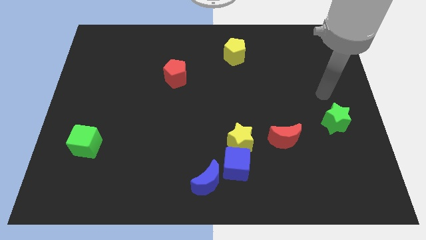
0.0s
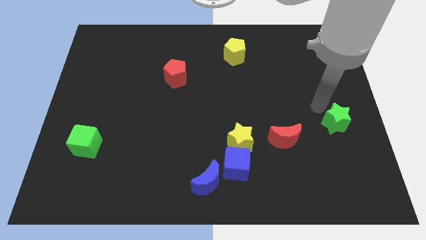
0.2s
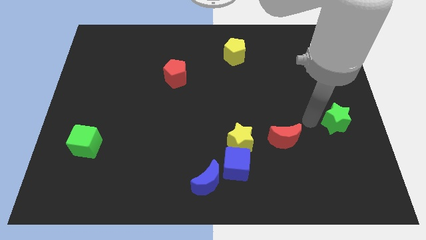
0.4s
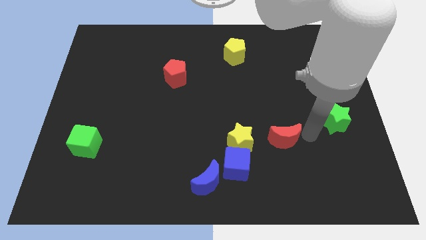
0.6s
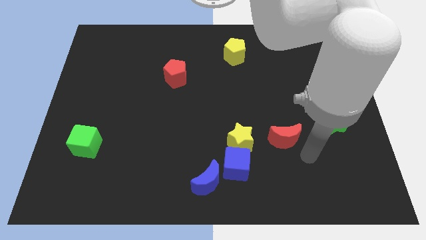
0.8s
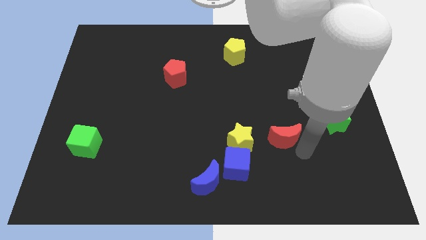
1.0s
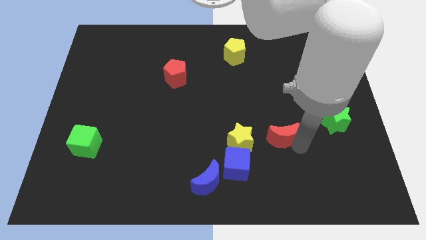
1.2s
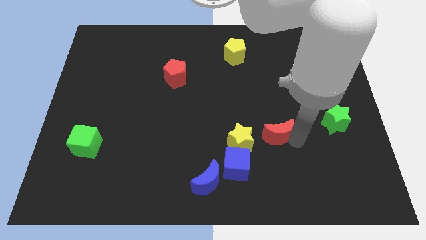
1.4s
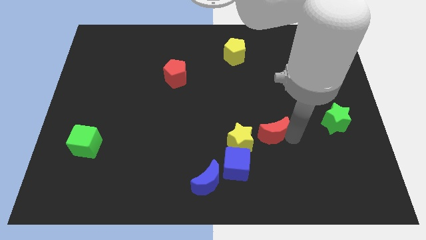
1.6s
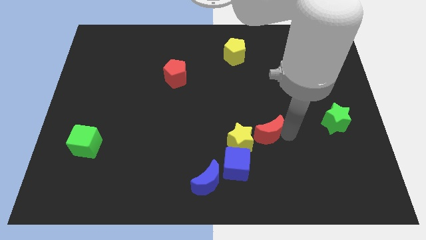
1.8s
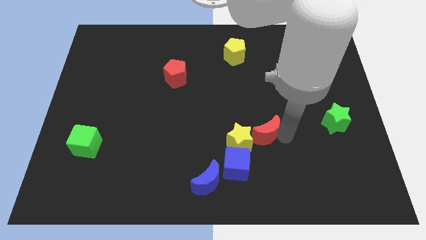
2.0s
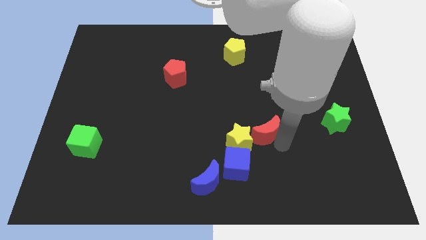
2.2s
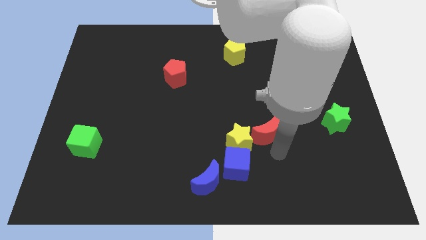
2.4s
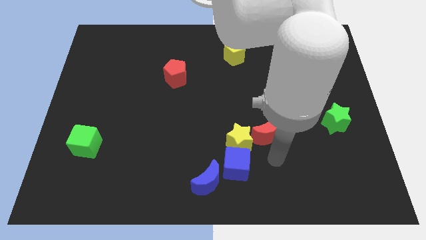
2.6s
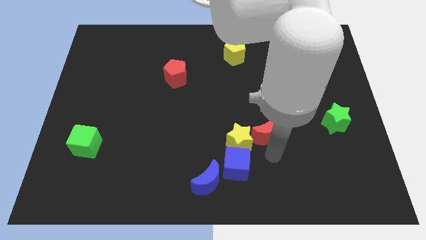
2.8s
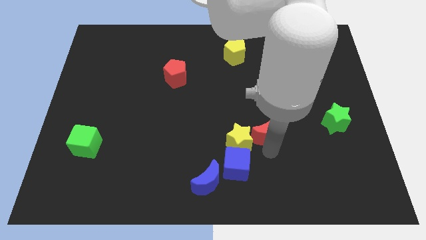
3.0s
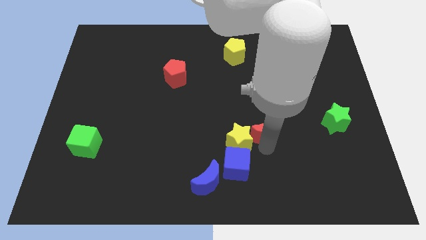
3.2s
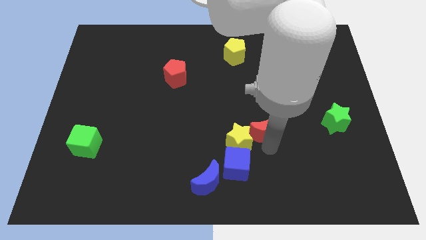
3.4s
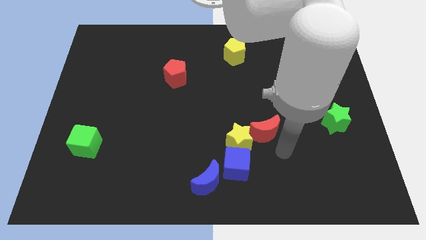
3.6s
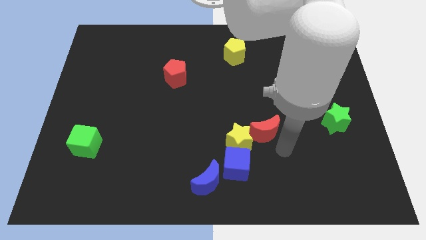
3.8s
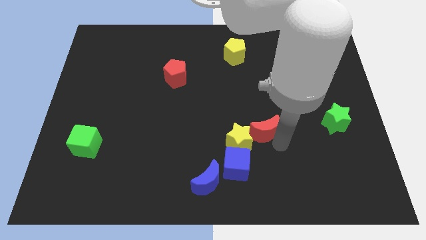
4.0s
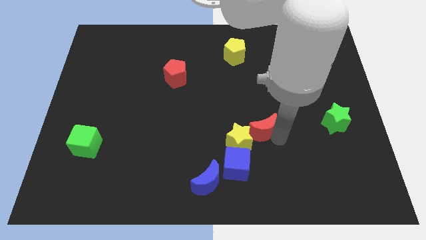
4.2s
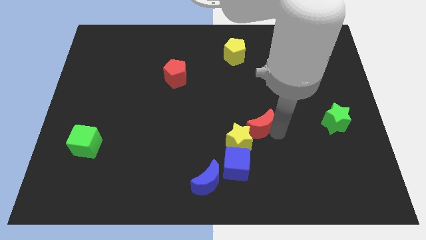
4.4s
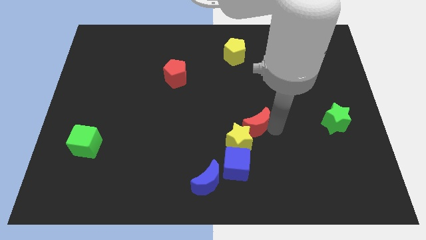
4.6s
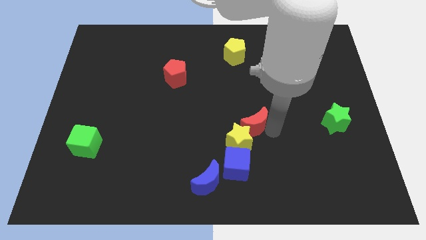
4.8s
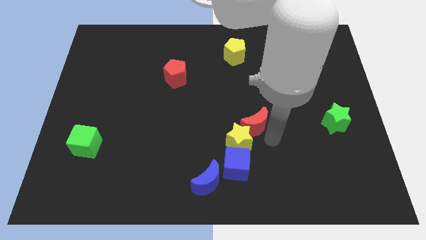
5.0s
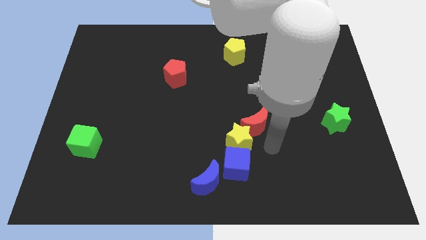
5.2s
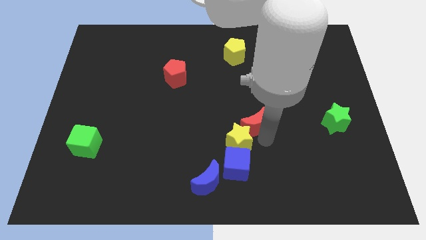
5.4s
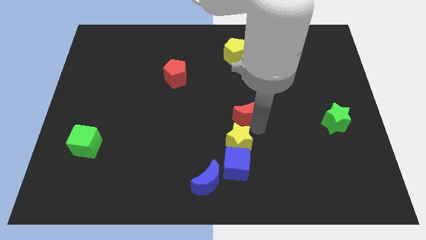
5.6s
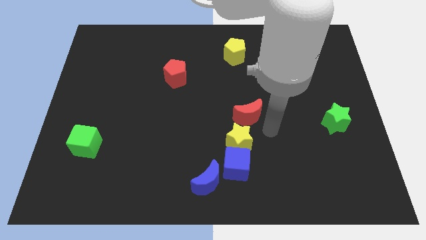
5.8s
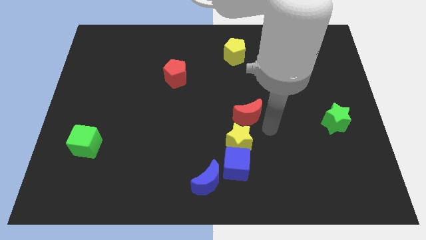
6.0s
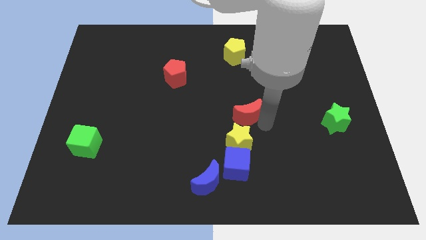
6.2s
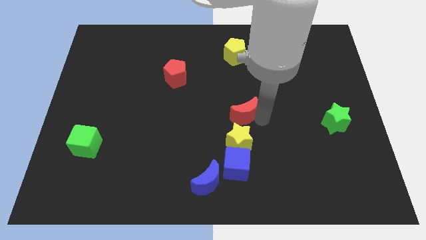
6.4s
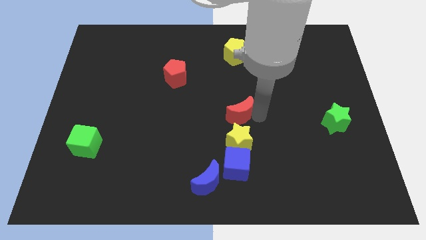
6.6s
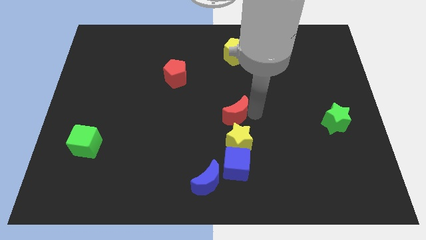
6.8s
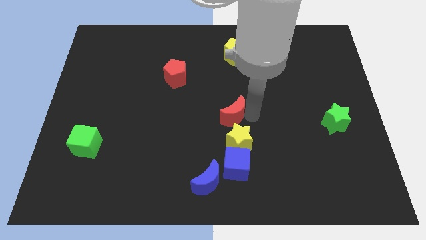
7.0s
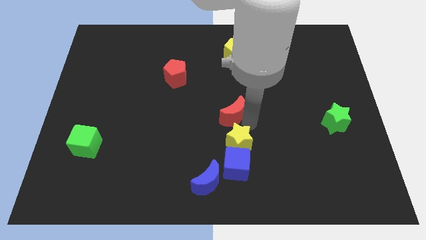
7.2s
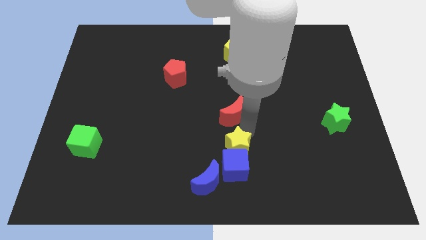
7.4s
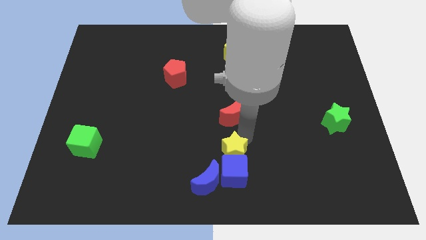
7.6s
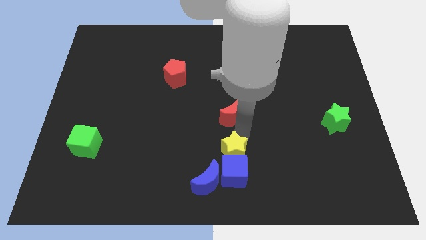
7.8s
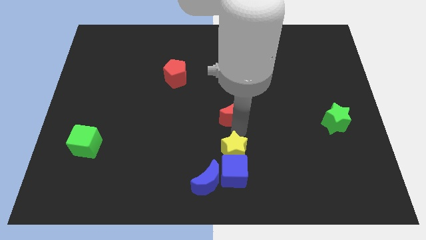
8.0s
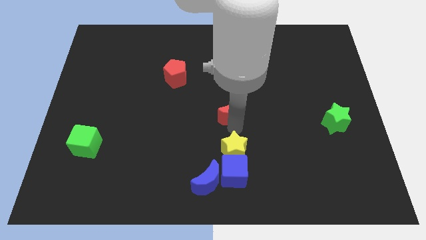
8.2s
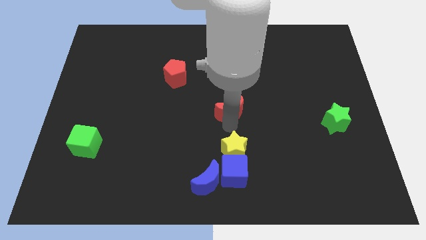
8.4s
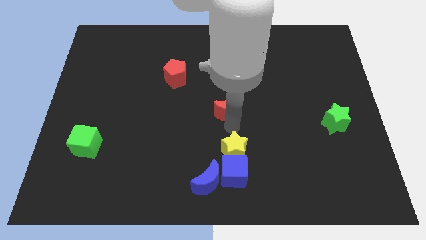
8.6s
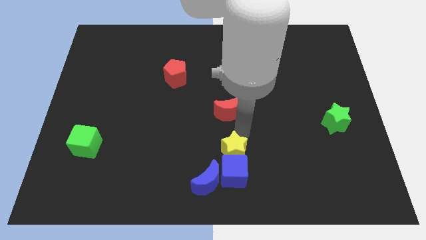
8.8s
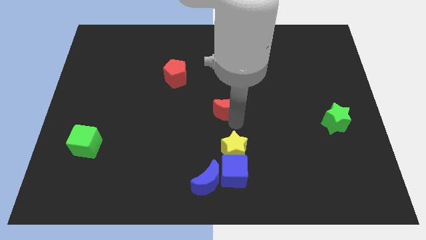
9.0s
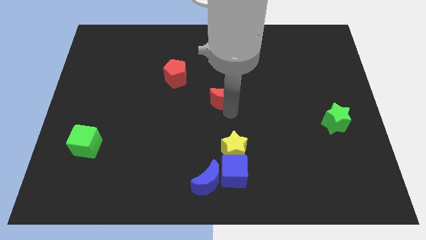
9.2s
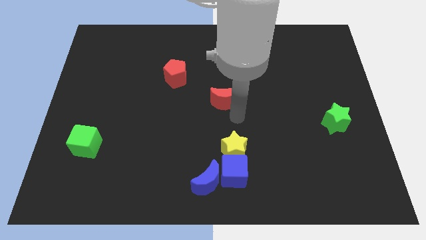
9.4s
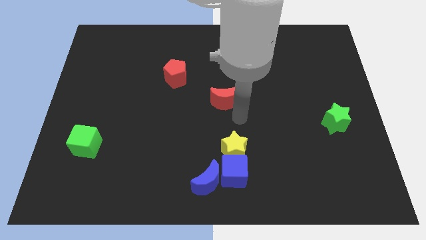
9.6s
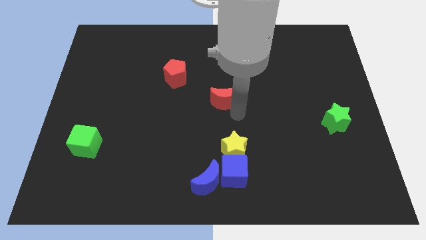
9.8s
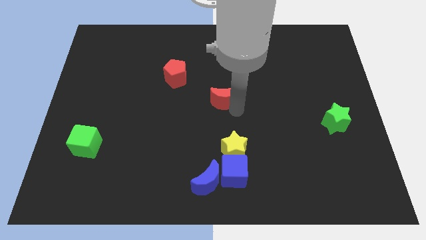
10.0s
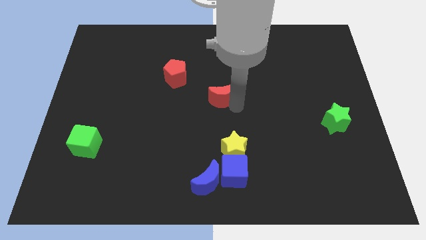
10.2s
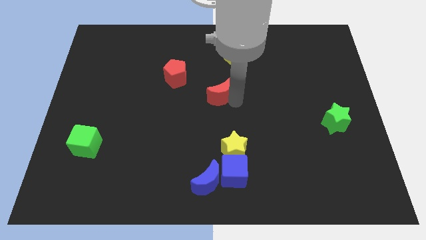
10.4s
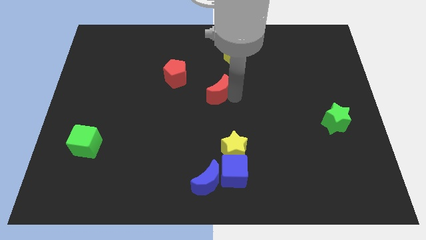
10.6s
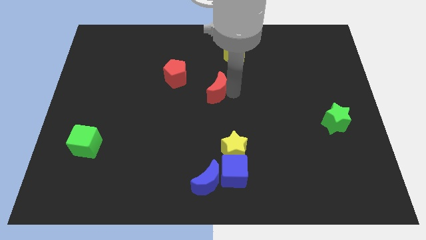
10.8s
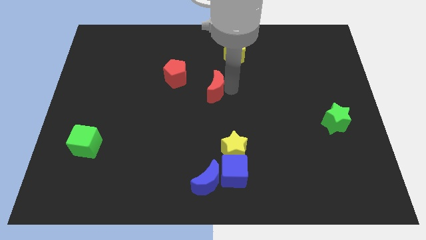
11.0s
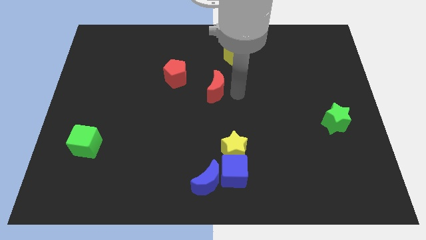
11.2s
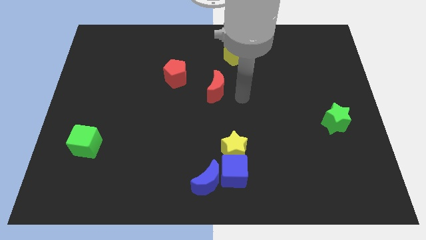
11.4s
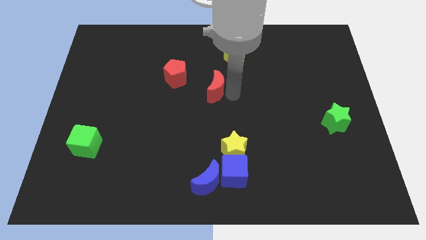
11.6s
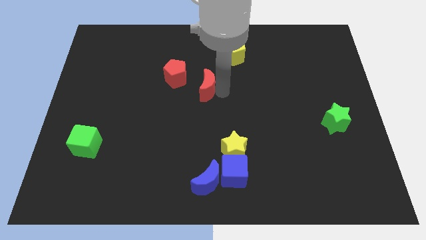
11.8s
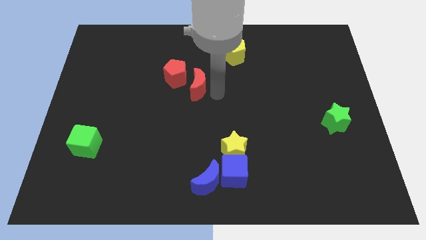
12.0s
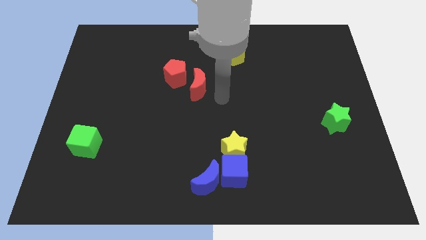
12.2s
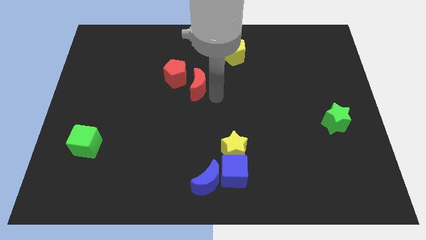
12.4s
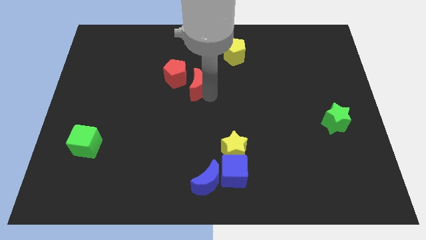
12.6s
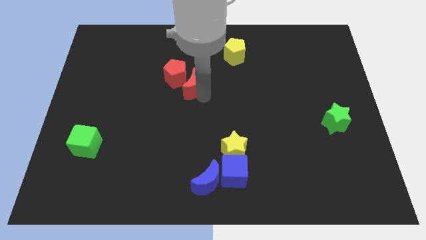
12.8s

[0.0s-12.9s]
move the red moon to the red pentagon

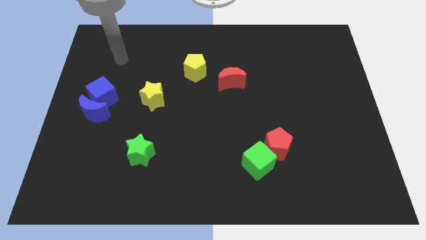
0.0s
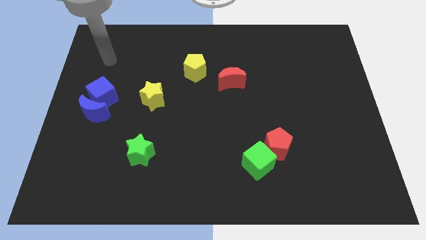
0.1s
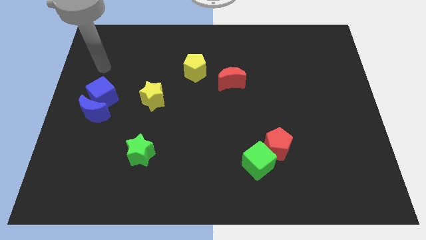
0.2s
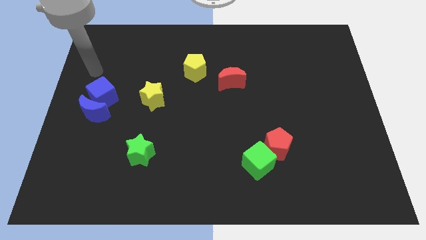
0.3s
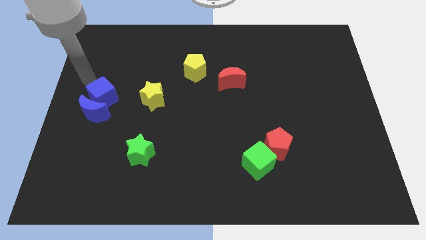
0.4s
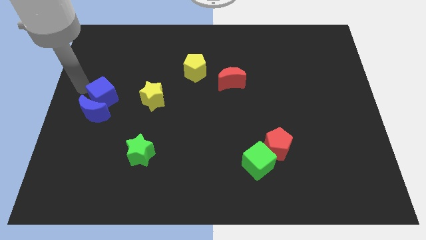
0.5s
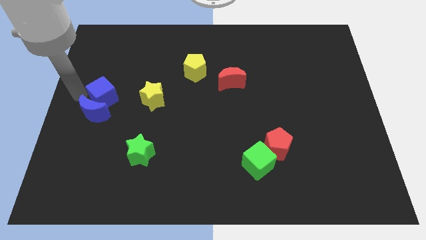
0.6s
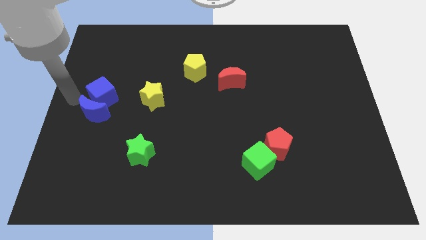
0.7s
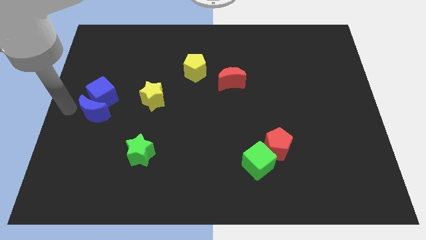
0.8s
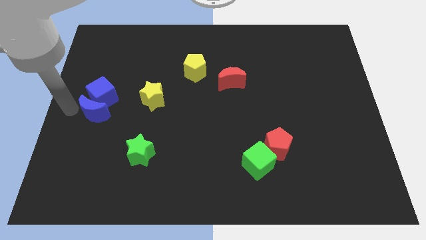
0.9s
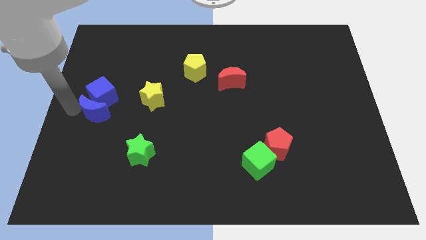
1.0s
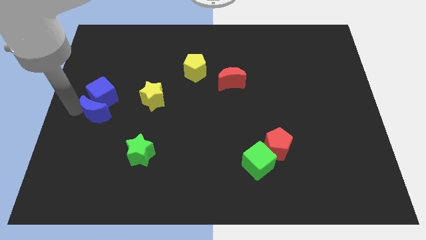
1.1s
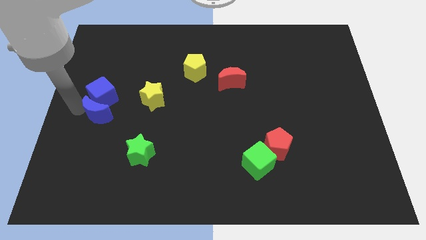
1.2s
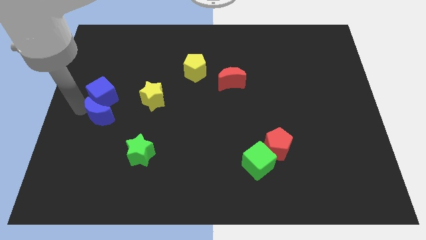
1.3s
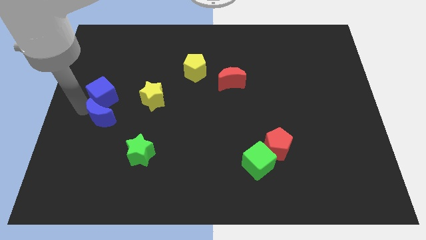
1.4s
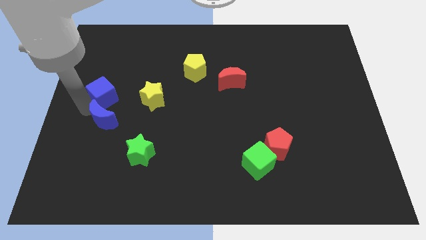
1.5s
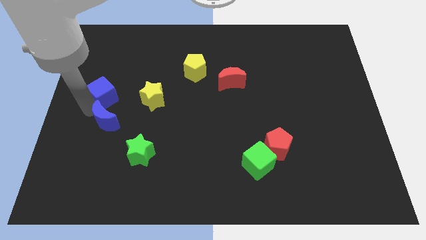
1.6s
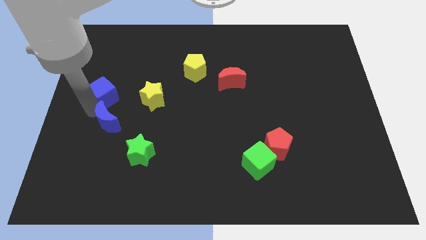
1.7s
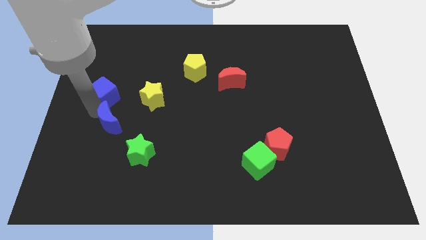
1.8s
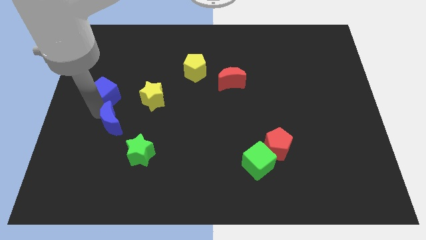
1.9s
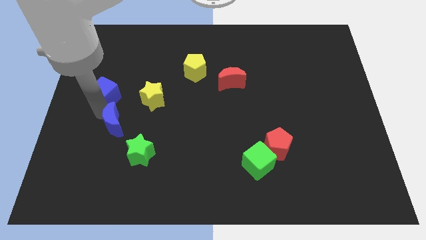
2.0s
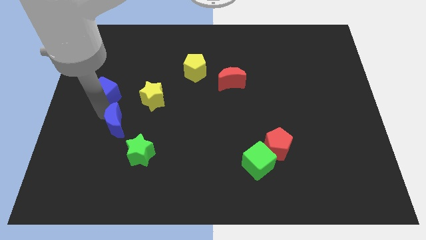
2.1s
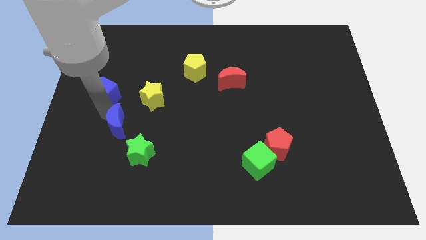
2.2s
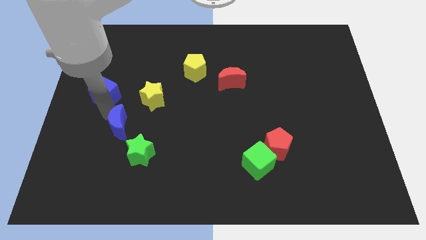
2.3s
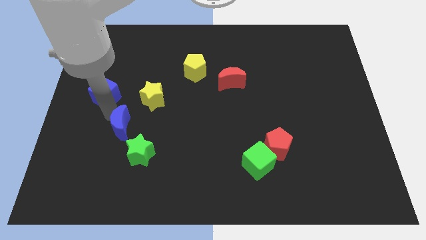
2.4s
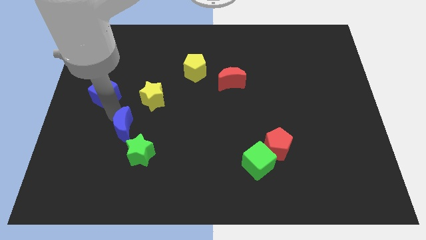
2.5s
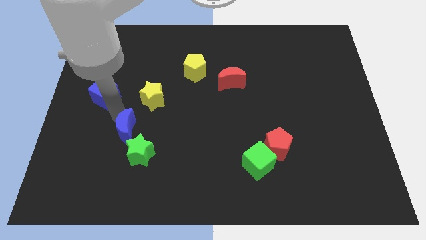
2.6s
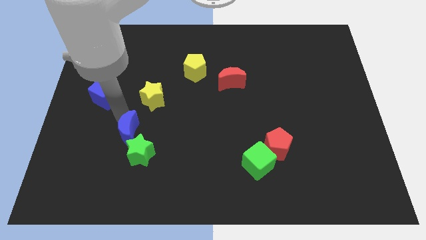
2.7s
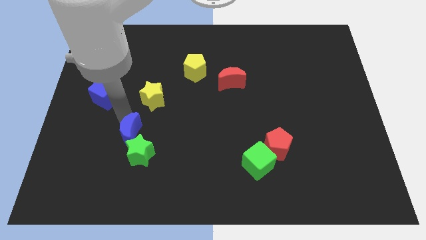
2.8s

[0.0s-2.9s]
push the blue moon towards the green star
